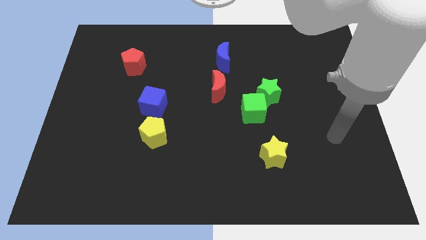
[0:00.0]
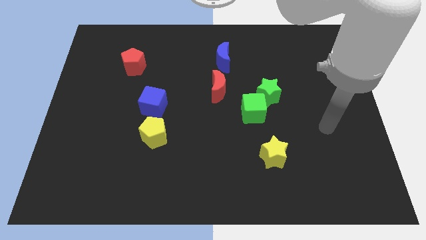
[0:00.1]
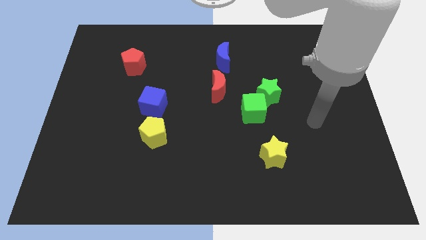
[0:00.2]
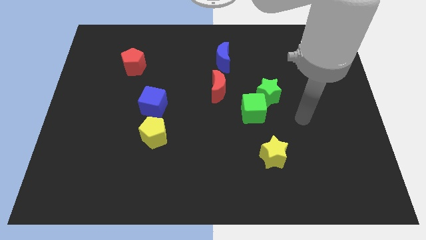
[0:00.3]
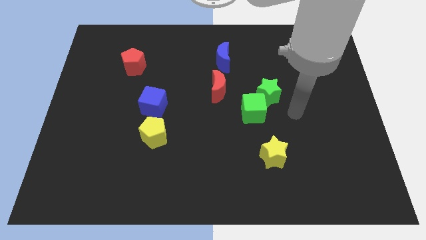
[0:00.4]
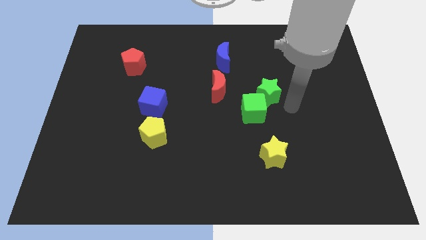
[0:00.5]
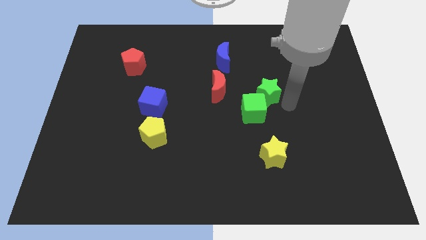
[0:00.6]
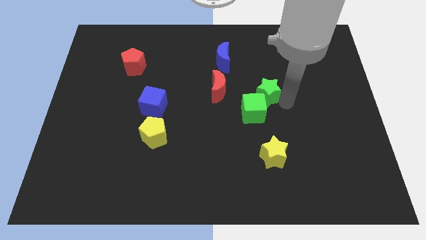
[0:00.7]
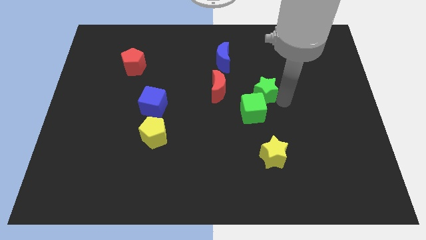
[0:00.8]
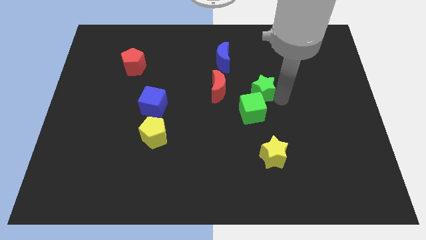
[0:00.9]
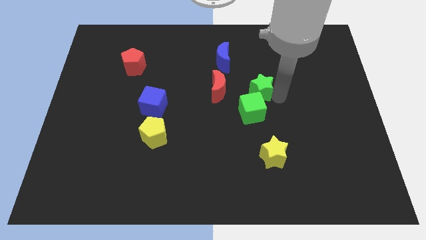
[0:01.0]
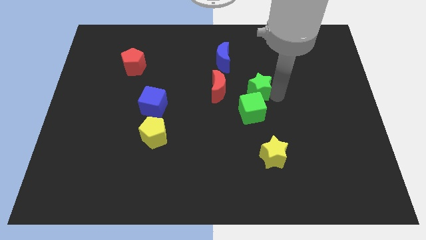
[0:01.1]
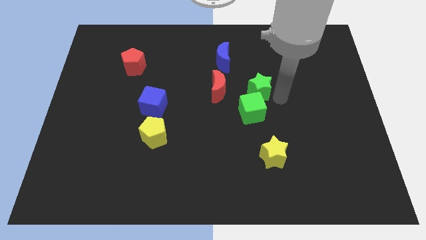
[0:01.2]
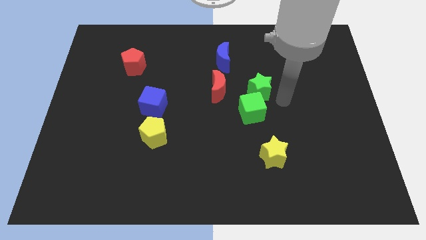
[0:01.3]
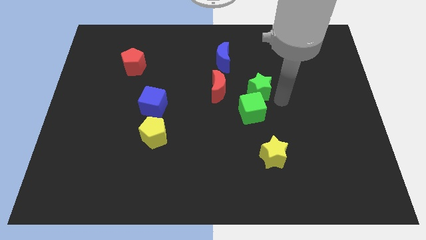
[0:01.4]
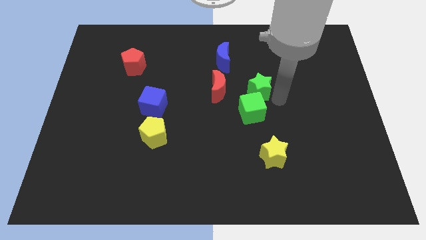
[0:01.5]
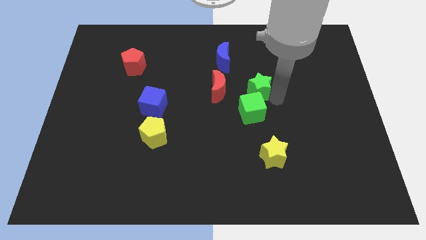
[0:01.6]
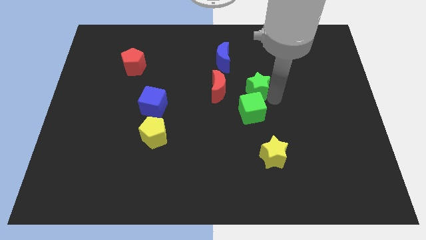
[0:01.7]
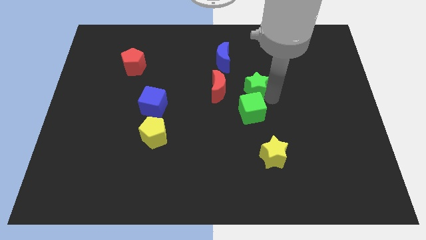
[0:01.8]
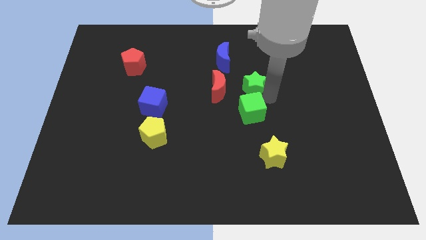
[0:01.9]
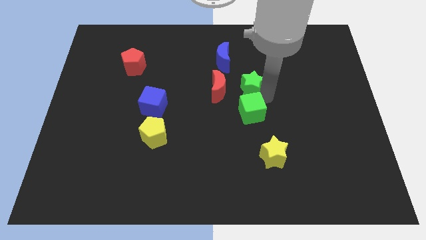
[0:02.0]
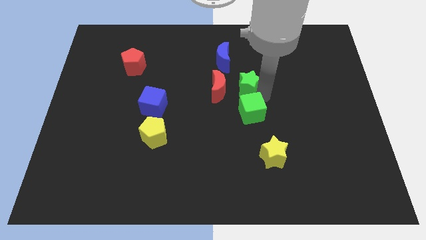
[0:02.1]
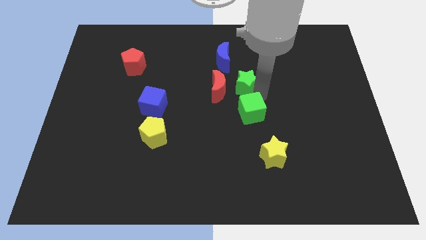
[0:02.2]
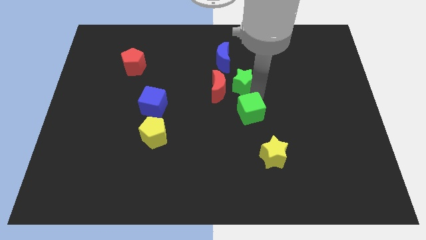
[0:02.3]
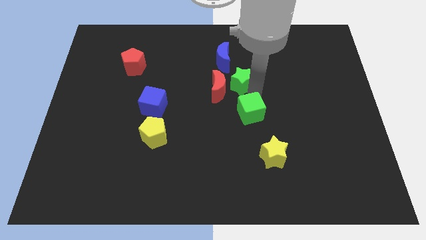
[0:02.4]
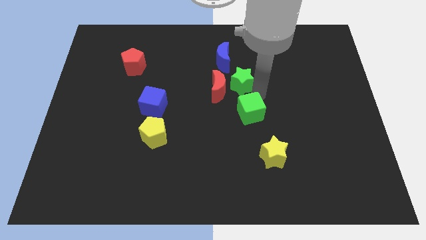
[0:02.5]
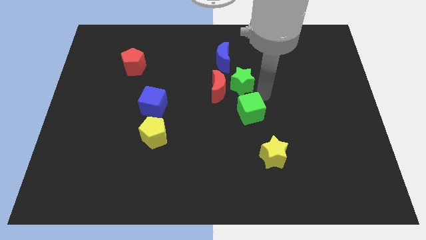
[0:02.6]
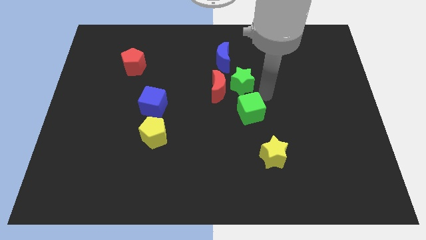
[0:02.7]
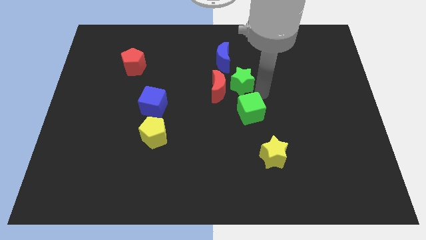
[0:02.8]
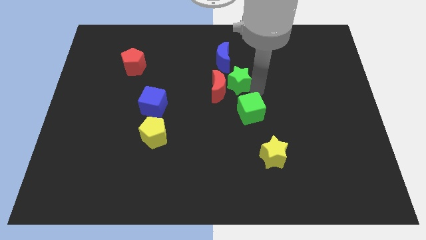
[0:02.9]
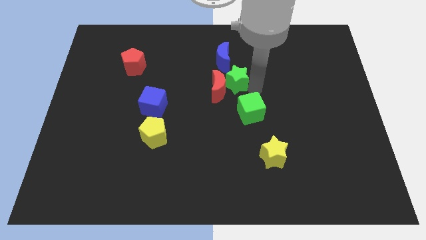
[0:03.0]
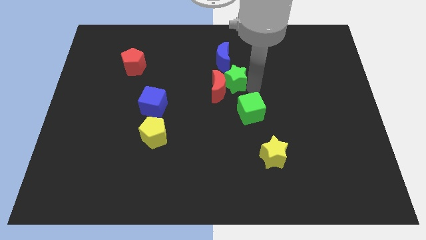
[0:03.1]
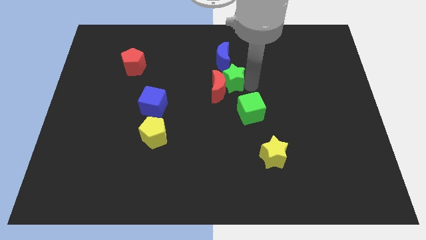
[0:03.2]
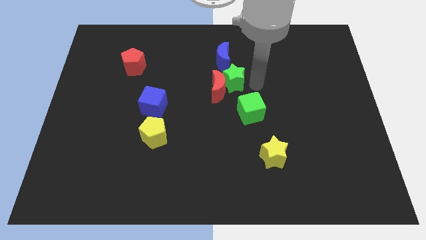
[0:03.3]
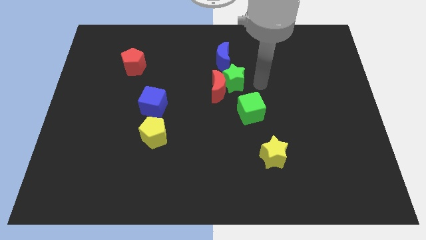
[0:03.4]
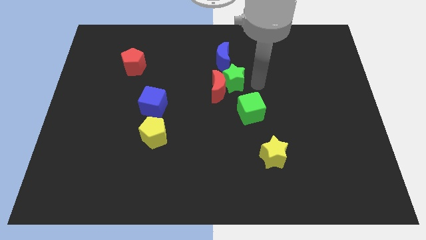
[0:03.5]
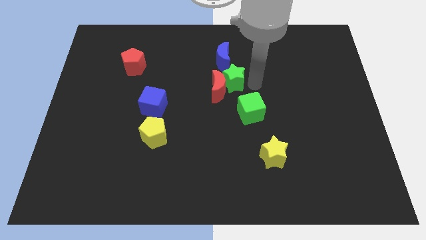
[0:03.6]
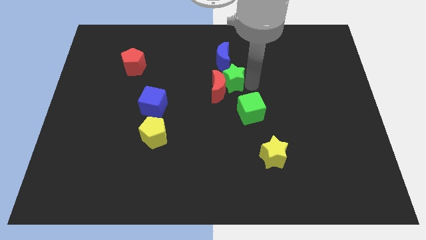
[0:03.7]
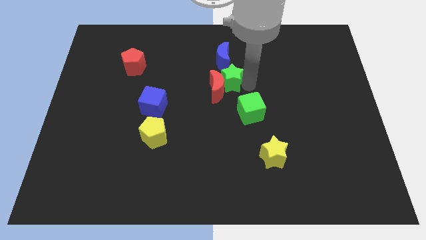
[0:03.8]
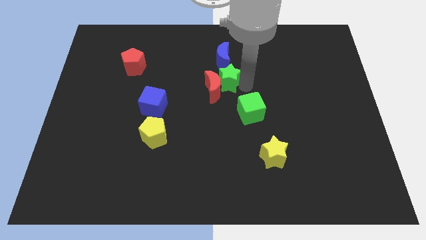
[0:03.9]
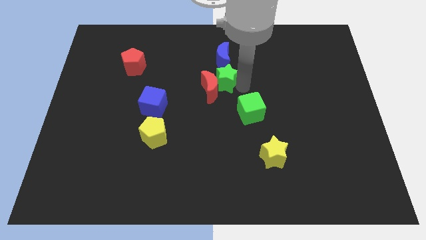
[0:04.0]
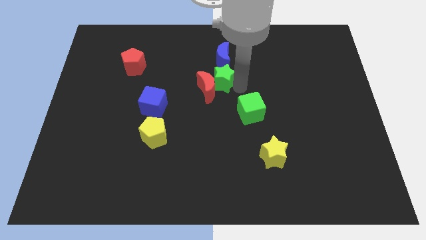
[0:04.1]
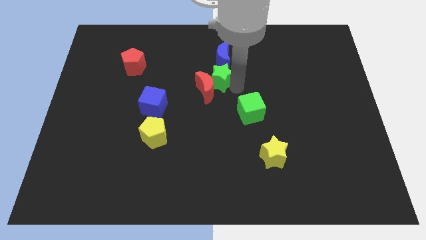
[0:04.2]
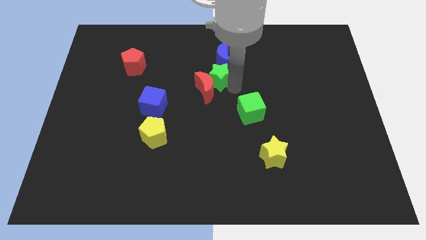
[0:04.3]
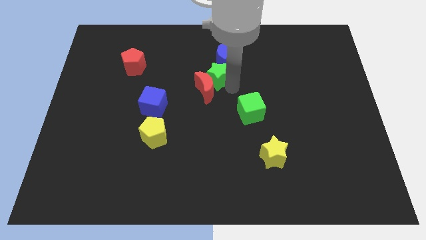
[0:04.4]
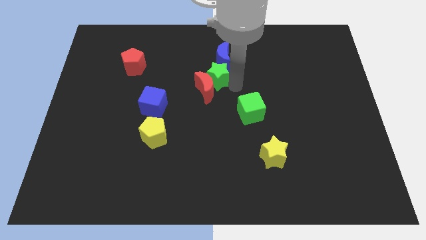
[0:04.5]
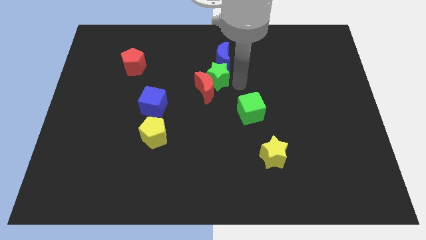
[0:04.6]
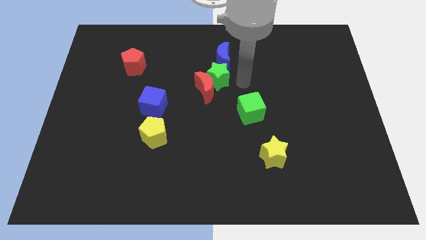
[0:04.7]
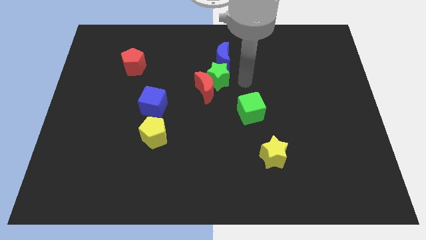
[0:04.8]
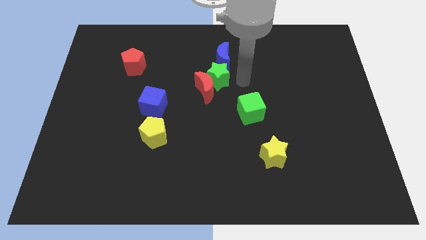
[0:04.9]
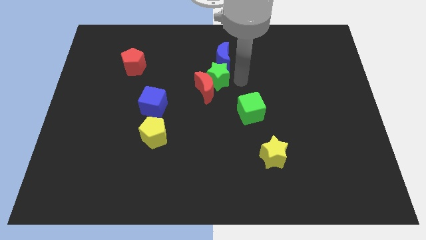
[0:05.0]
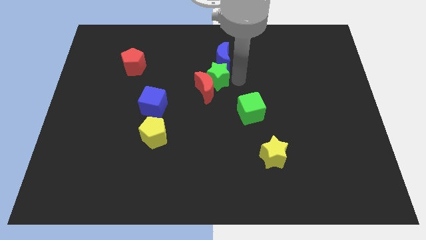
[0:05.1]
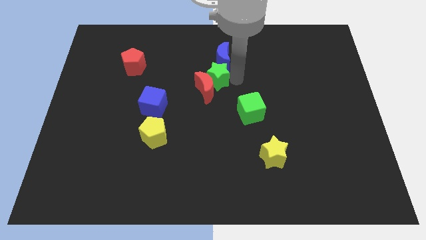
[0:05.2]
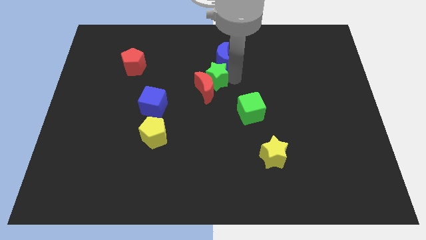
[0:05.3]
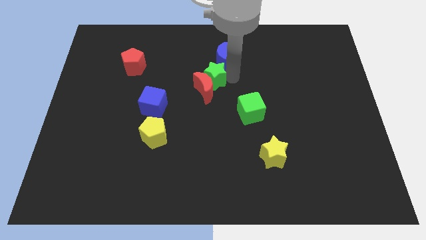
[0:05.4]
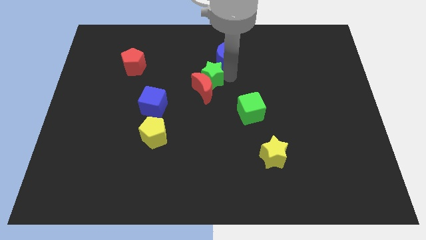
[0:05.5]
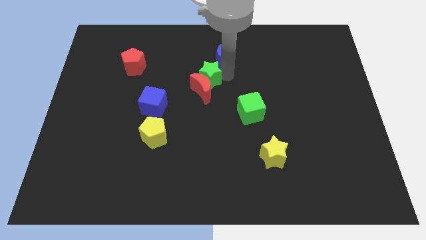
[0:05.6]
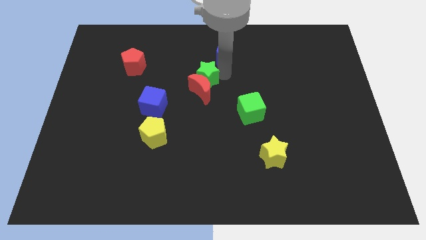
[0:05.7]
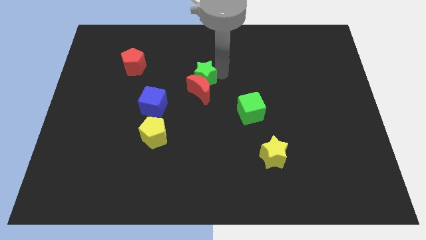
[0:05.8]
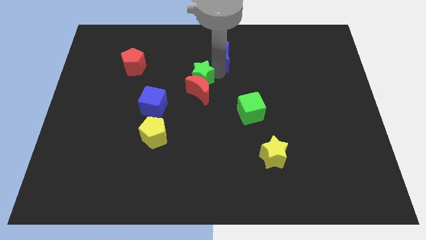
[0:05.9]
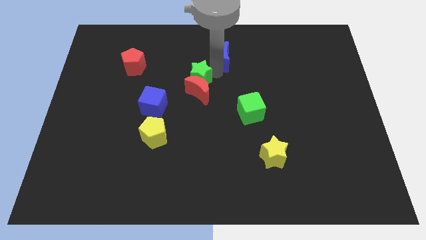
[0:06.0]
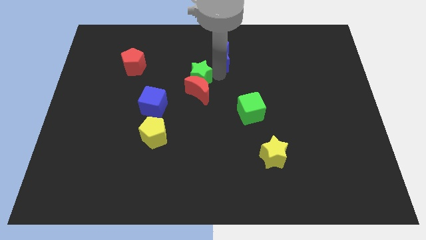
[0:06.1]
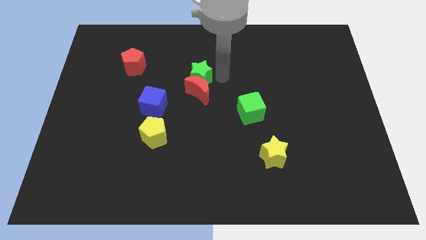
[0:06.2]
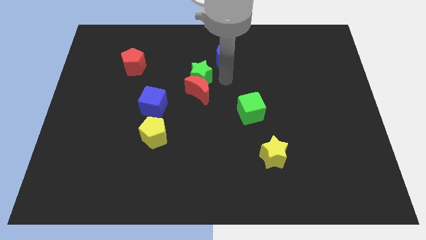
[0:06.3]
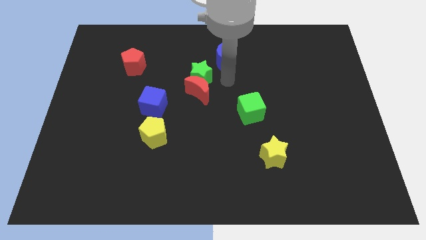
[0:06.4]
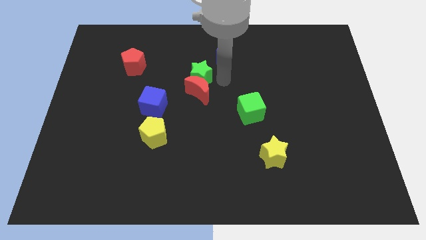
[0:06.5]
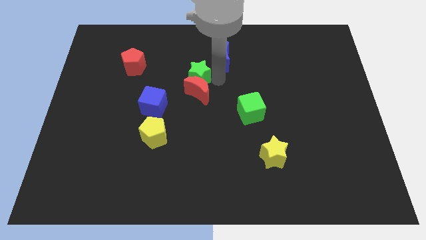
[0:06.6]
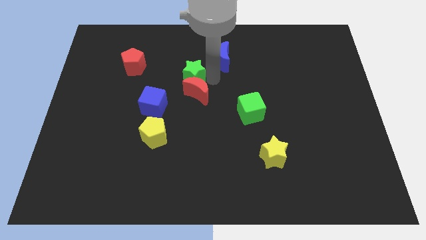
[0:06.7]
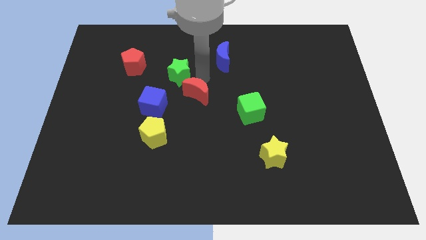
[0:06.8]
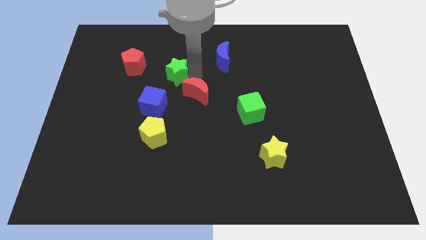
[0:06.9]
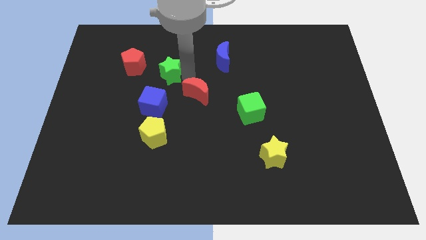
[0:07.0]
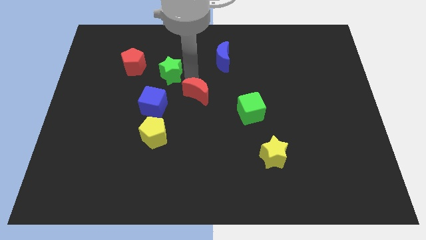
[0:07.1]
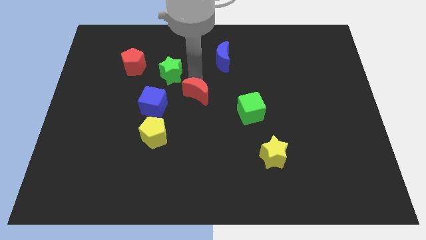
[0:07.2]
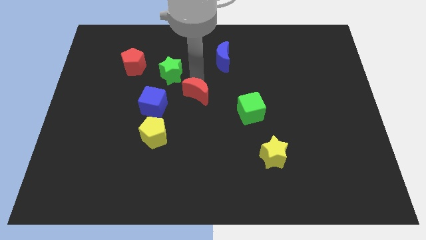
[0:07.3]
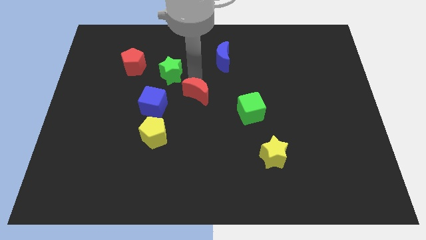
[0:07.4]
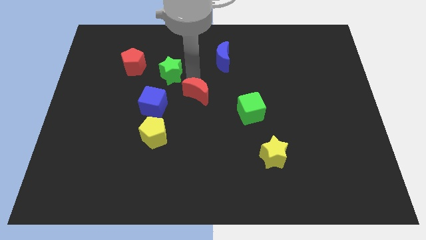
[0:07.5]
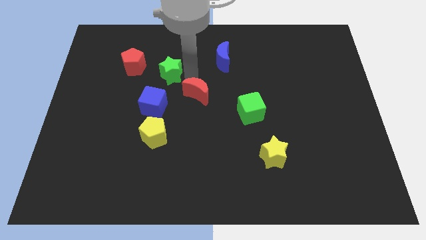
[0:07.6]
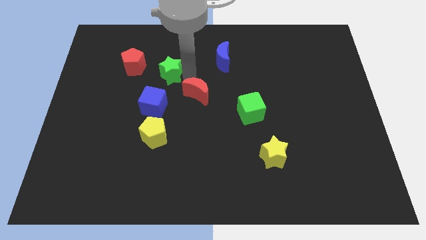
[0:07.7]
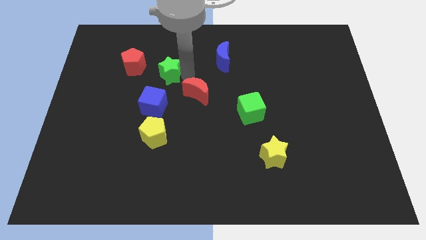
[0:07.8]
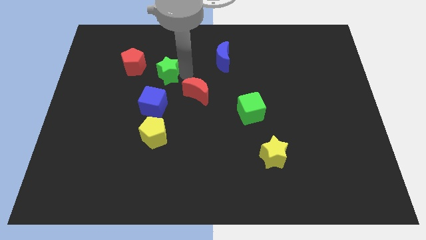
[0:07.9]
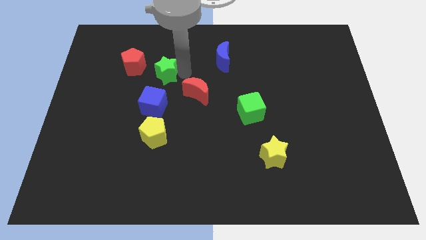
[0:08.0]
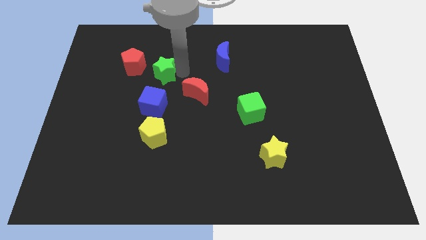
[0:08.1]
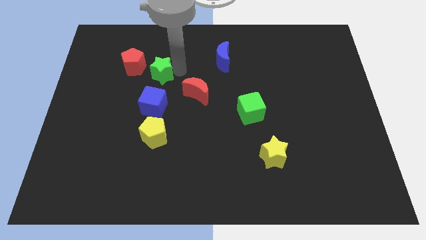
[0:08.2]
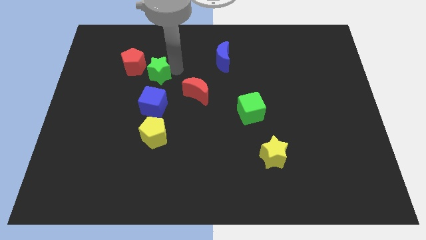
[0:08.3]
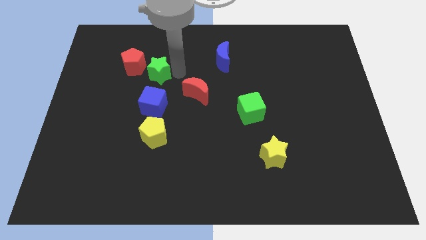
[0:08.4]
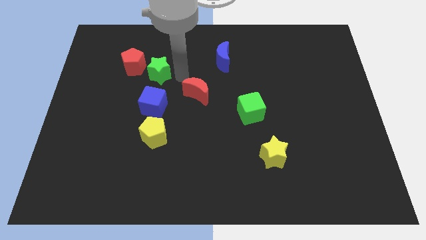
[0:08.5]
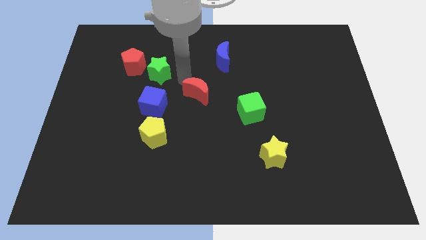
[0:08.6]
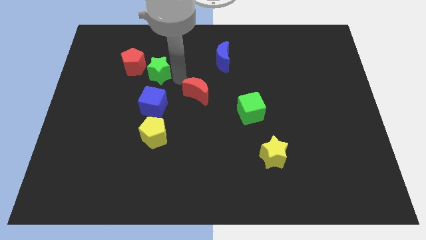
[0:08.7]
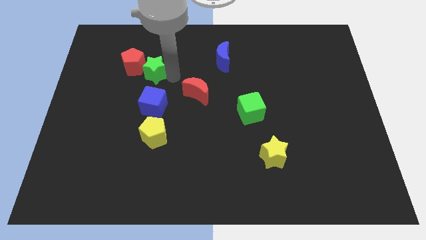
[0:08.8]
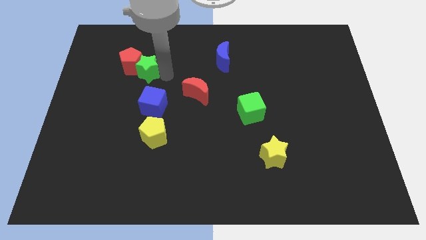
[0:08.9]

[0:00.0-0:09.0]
move the green star towards the red pentagon
